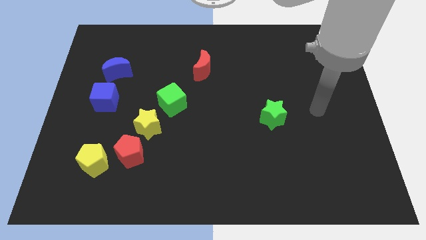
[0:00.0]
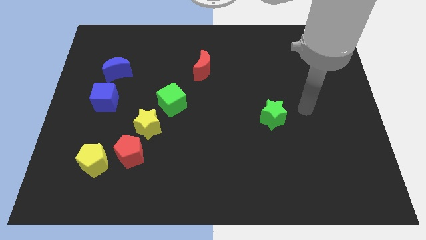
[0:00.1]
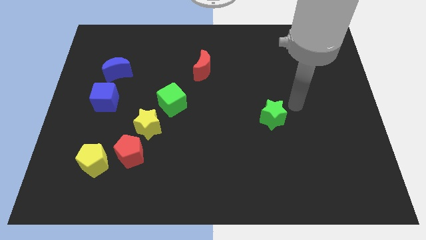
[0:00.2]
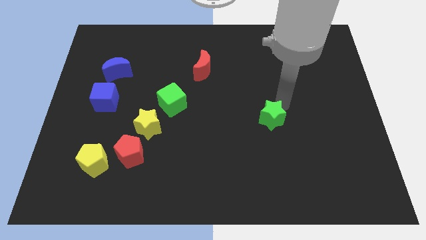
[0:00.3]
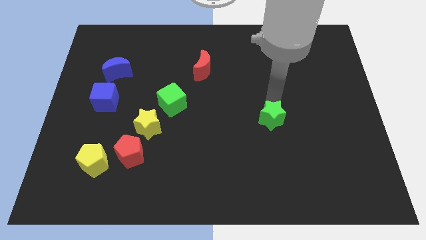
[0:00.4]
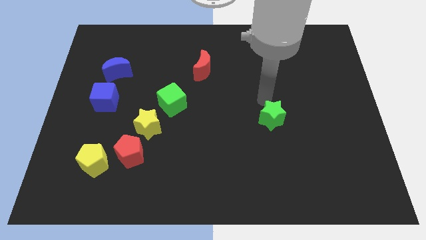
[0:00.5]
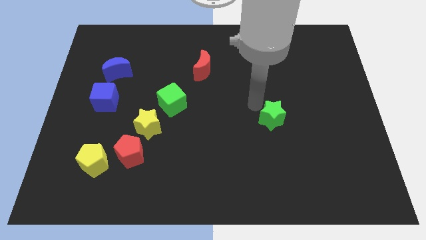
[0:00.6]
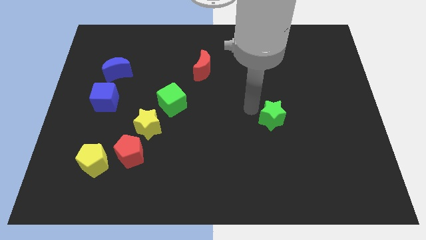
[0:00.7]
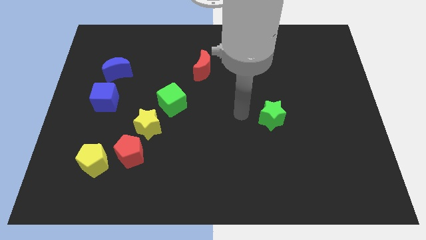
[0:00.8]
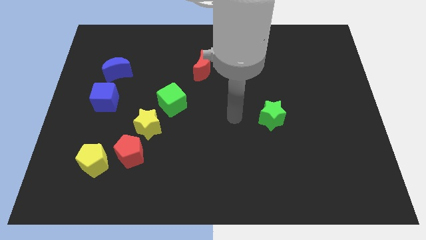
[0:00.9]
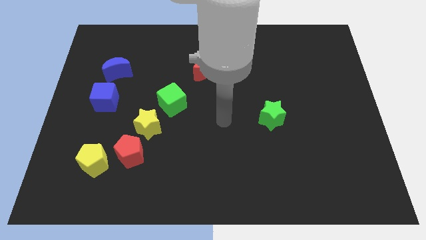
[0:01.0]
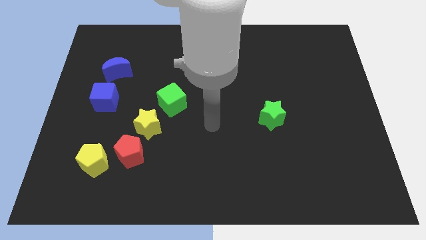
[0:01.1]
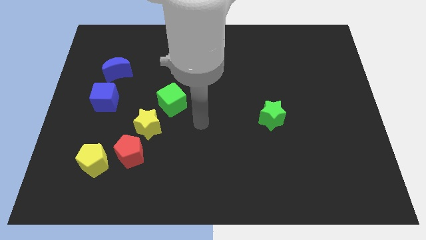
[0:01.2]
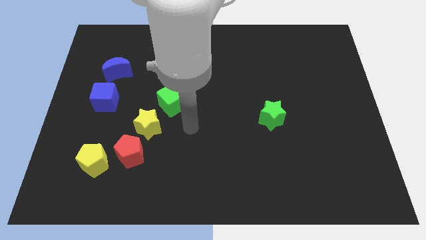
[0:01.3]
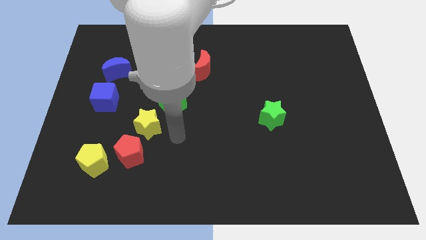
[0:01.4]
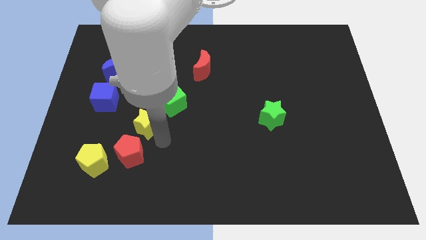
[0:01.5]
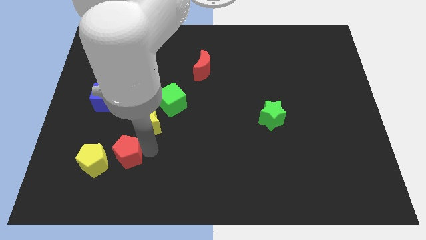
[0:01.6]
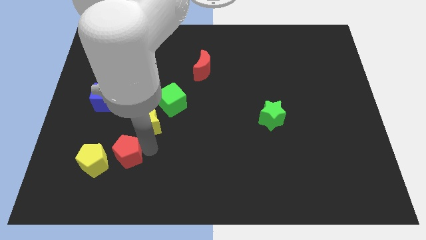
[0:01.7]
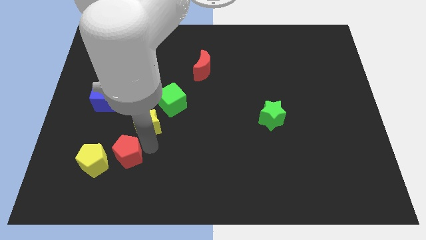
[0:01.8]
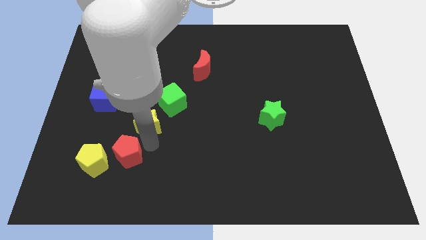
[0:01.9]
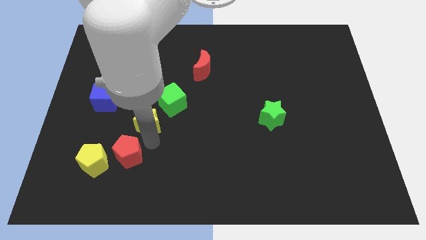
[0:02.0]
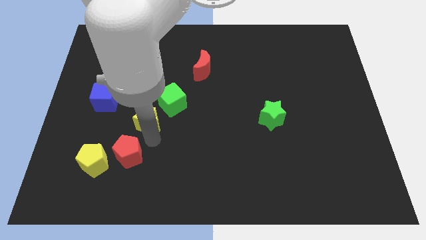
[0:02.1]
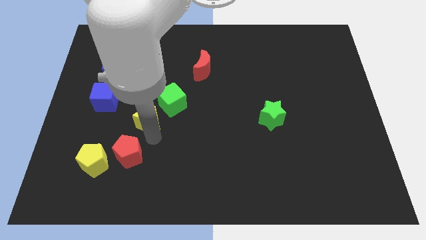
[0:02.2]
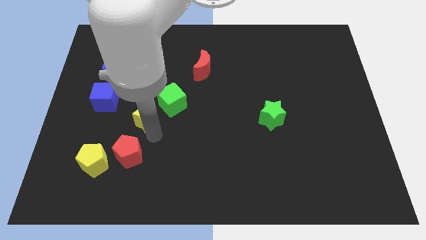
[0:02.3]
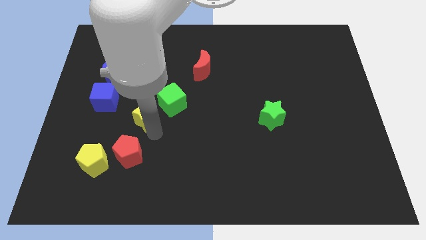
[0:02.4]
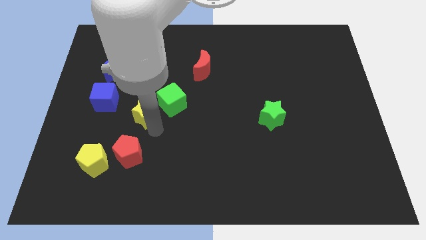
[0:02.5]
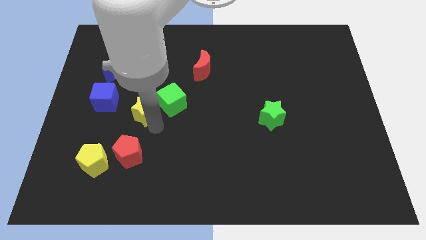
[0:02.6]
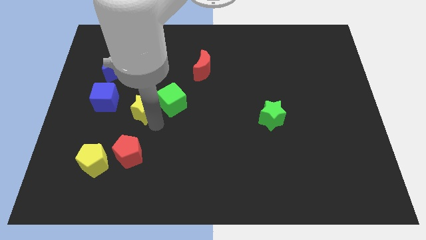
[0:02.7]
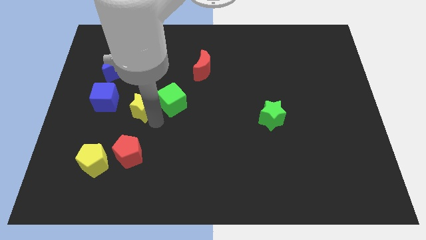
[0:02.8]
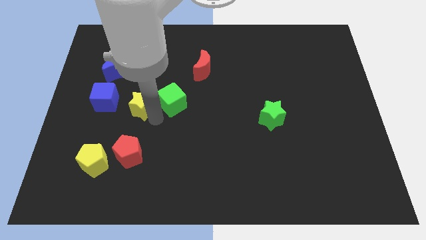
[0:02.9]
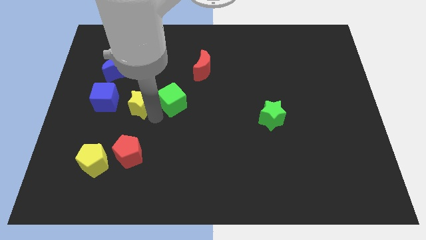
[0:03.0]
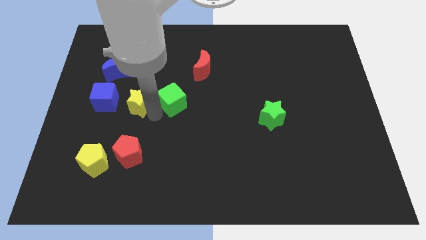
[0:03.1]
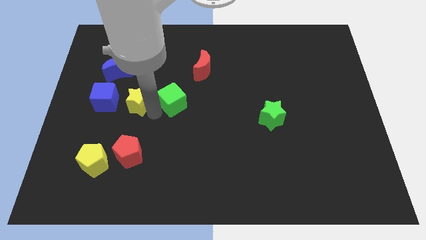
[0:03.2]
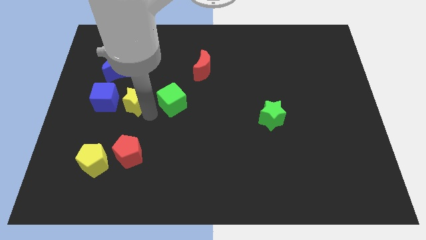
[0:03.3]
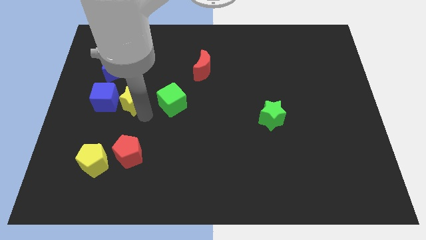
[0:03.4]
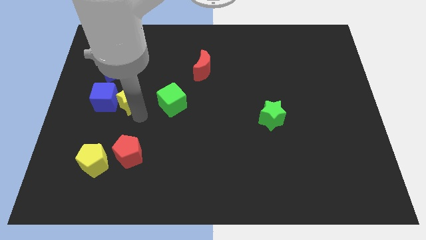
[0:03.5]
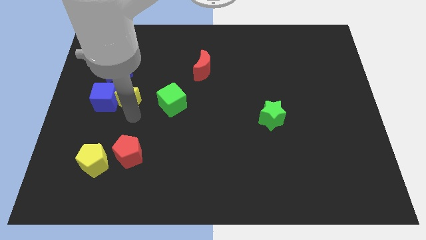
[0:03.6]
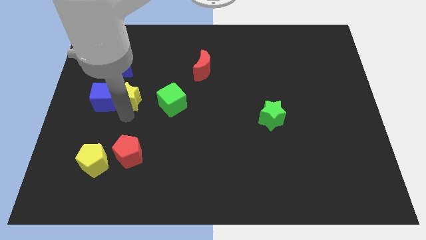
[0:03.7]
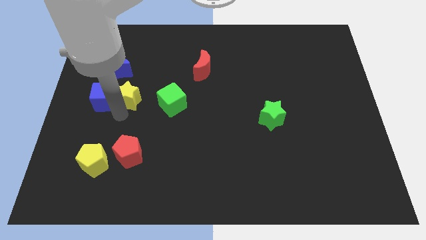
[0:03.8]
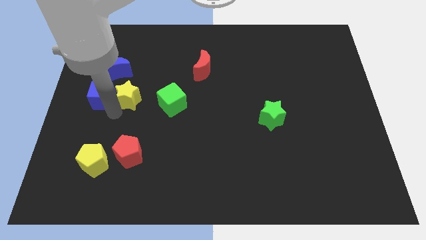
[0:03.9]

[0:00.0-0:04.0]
push the yellow star a little up

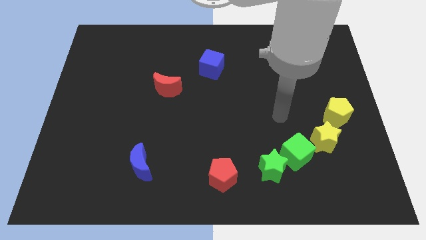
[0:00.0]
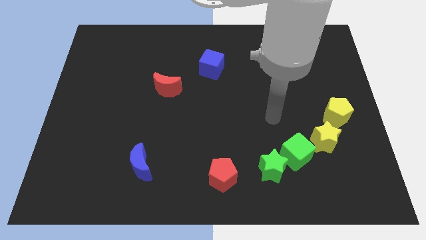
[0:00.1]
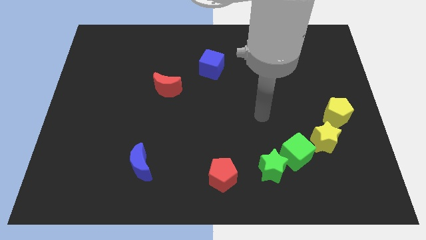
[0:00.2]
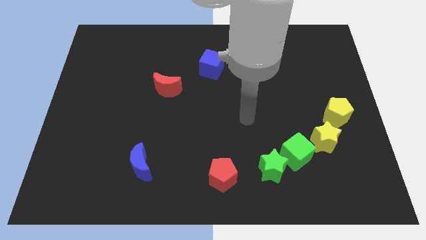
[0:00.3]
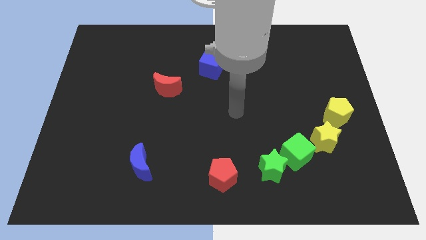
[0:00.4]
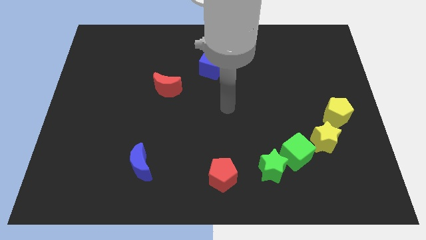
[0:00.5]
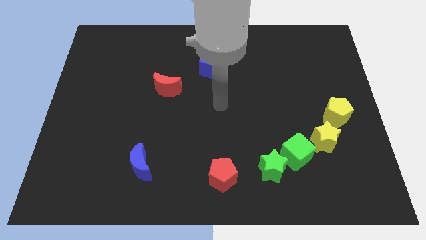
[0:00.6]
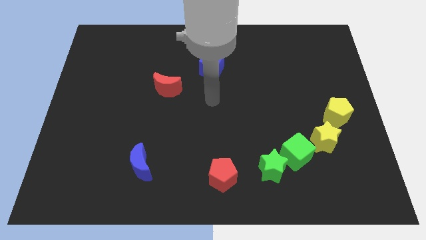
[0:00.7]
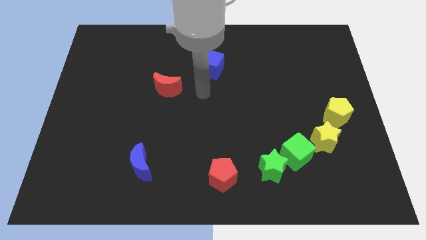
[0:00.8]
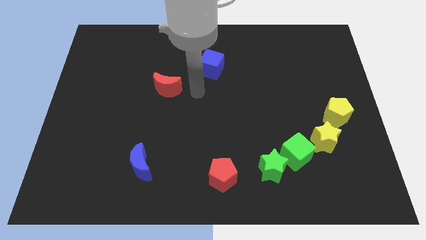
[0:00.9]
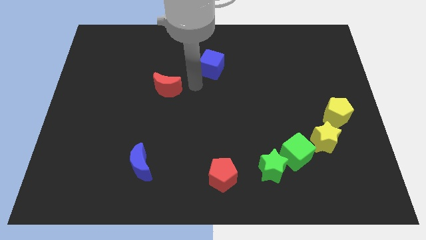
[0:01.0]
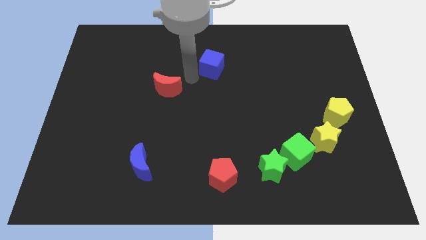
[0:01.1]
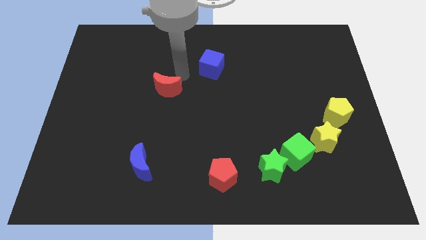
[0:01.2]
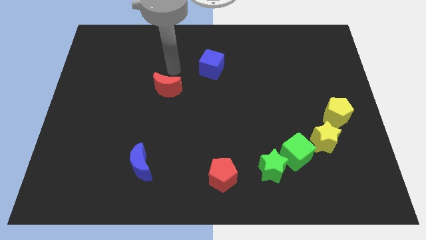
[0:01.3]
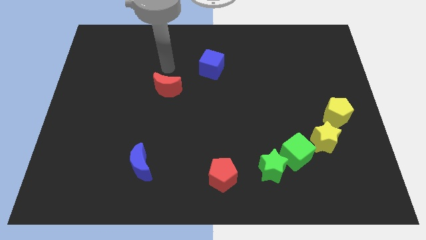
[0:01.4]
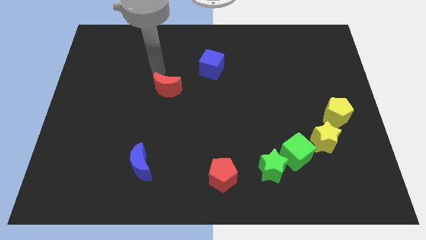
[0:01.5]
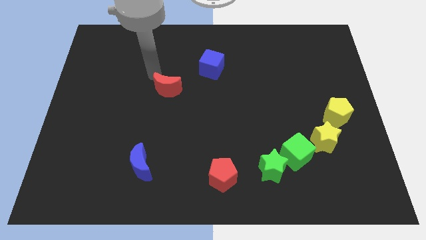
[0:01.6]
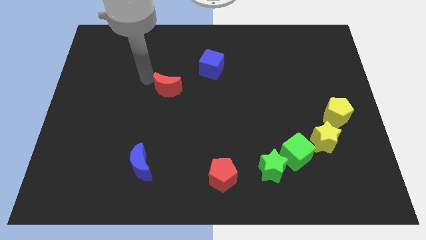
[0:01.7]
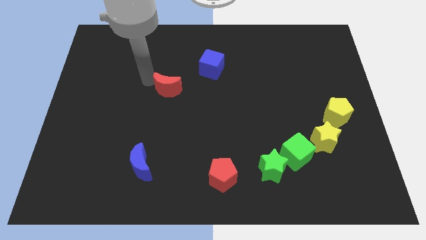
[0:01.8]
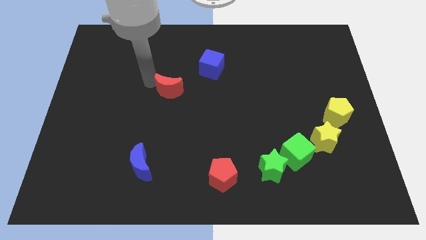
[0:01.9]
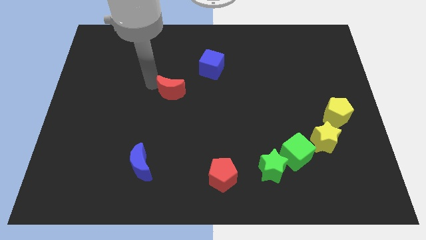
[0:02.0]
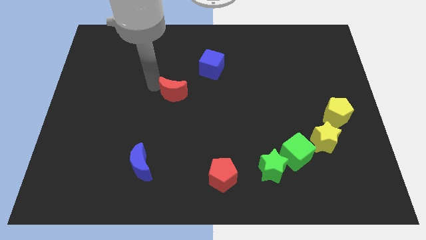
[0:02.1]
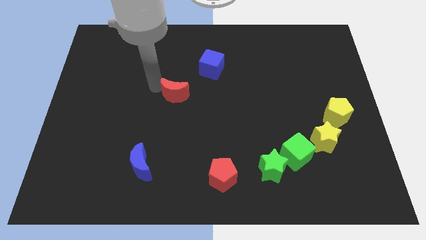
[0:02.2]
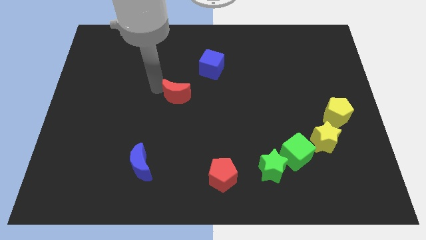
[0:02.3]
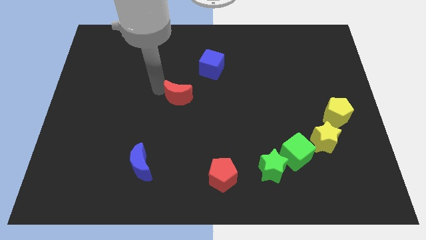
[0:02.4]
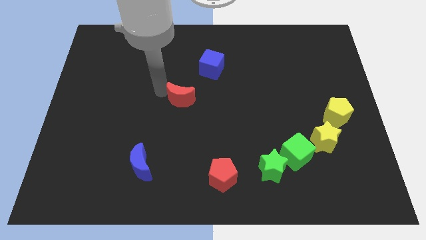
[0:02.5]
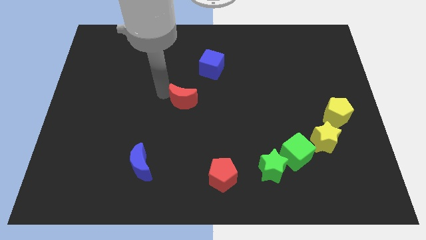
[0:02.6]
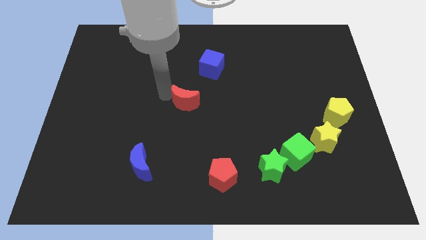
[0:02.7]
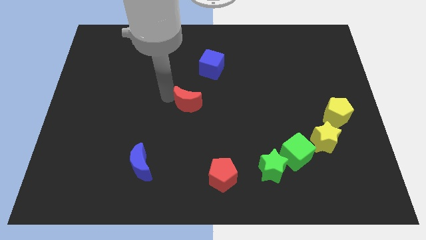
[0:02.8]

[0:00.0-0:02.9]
slightly move the red moon down and right

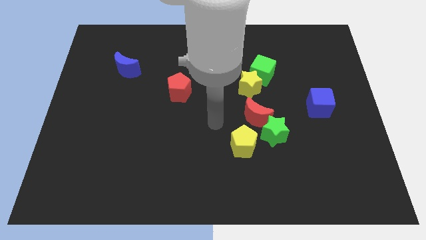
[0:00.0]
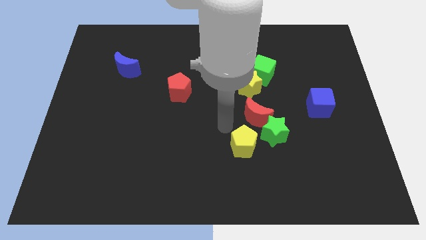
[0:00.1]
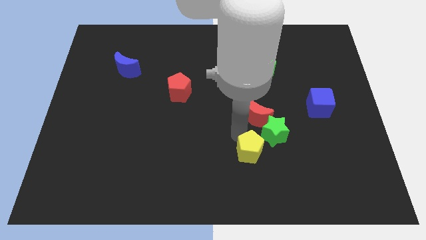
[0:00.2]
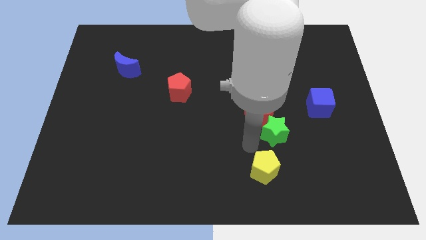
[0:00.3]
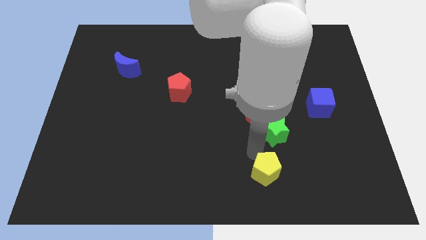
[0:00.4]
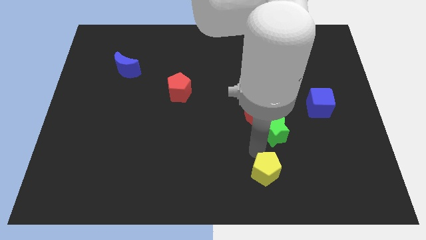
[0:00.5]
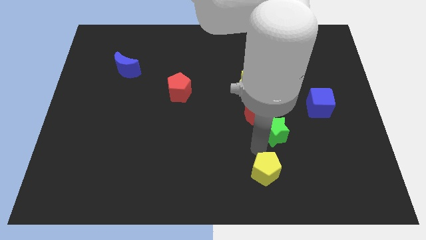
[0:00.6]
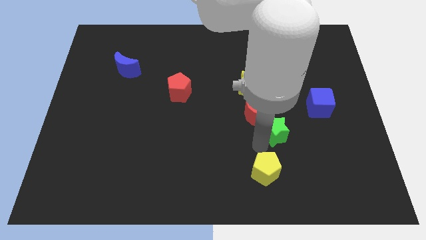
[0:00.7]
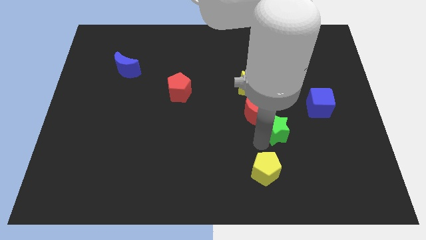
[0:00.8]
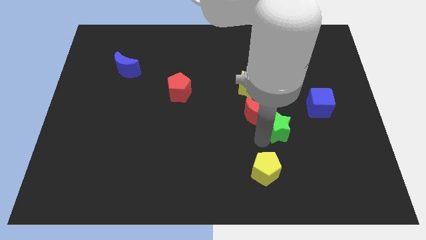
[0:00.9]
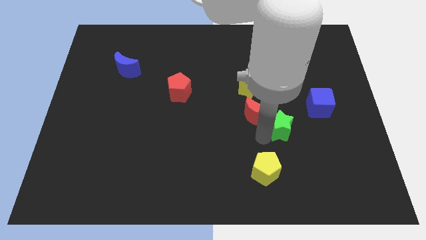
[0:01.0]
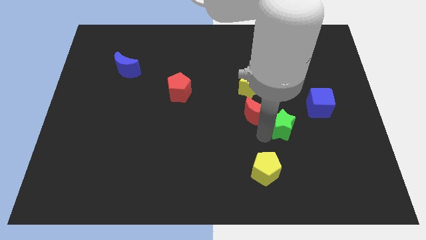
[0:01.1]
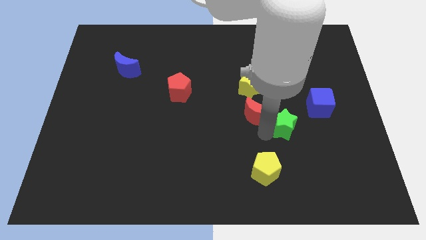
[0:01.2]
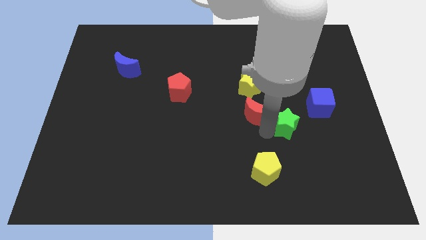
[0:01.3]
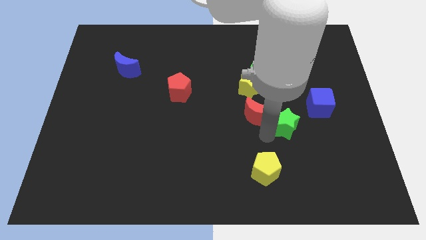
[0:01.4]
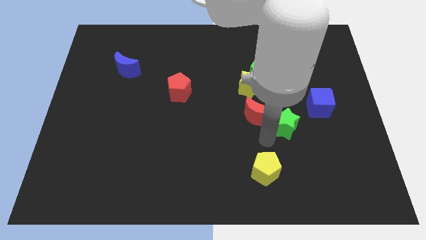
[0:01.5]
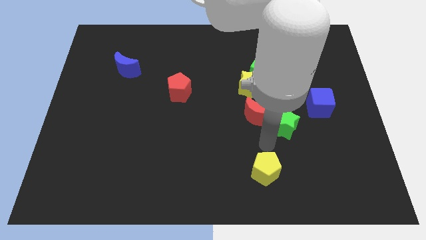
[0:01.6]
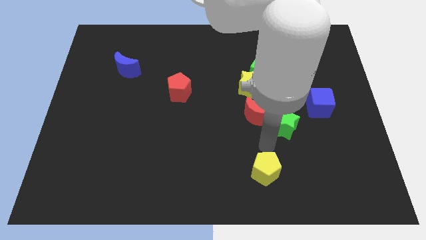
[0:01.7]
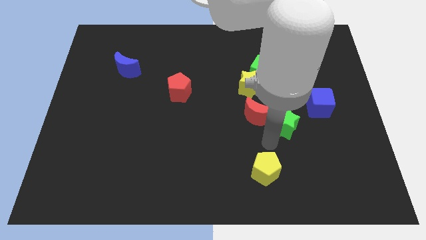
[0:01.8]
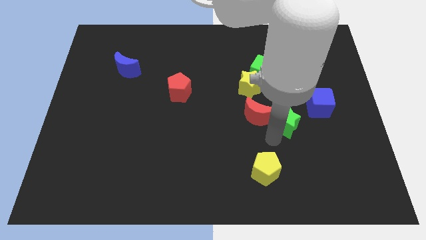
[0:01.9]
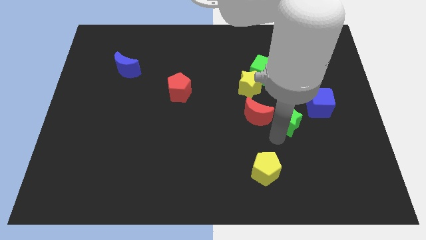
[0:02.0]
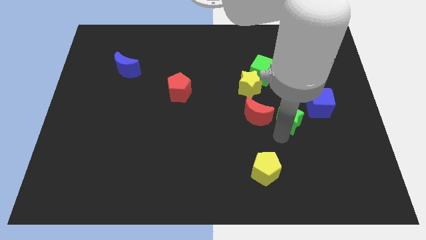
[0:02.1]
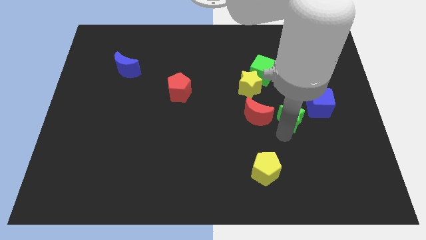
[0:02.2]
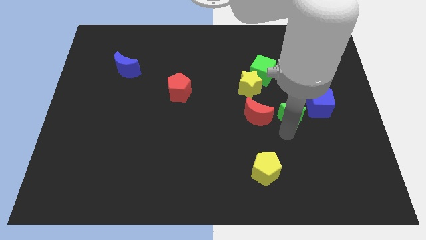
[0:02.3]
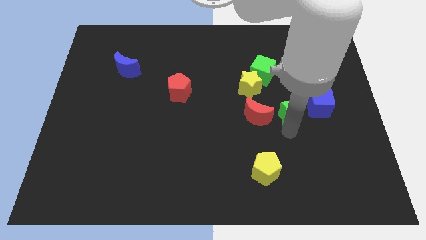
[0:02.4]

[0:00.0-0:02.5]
move the green star somewhat up and to the right diagonally
